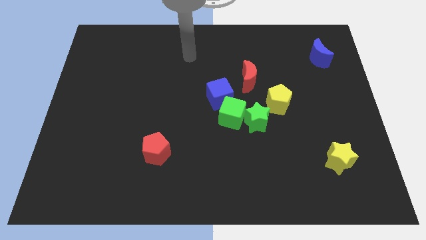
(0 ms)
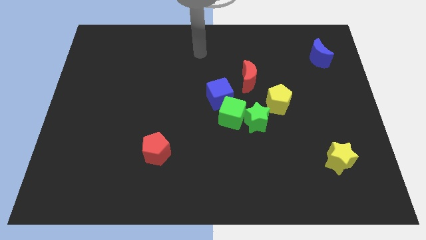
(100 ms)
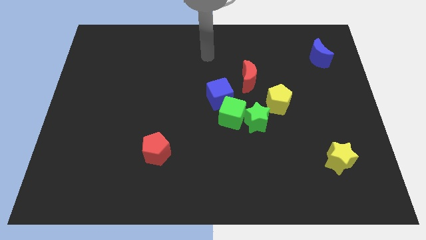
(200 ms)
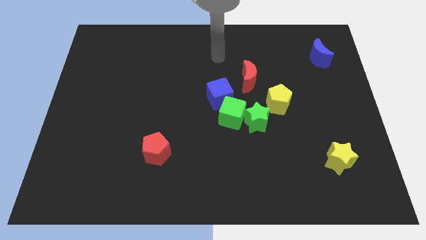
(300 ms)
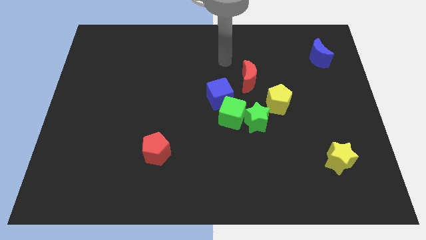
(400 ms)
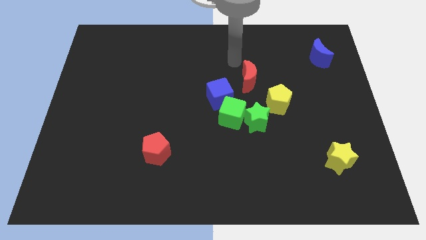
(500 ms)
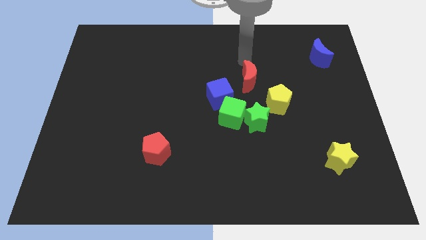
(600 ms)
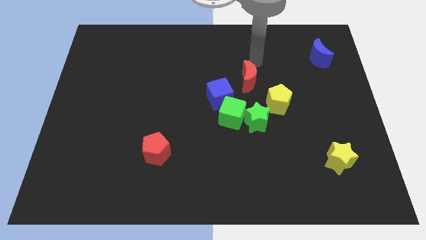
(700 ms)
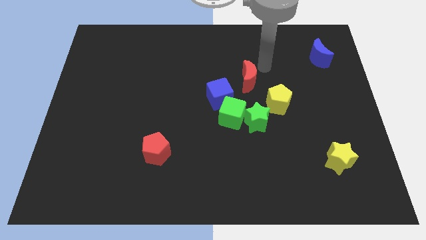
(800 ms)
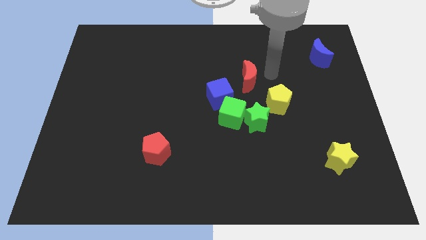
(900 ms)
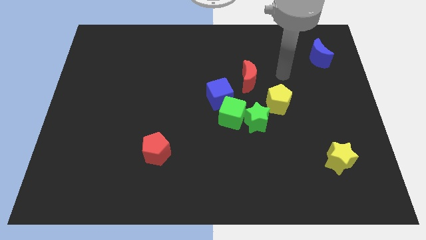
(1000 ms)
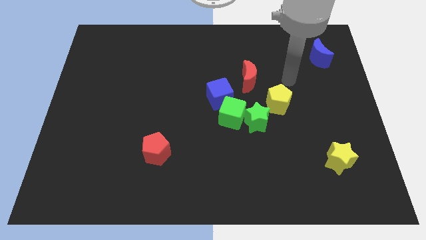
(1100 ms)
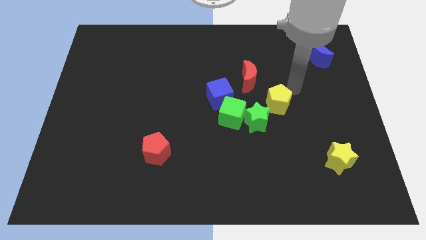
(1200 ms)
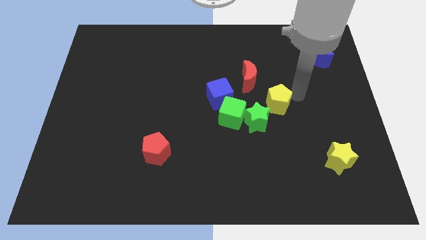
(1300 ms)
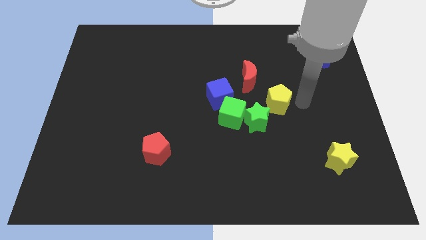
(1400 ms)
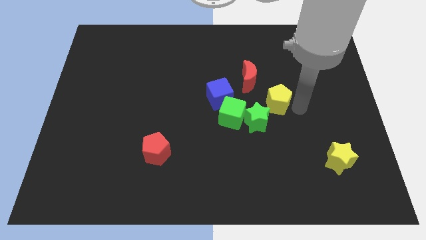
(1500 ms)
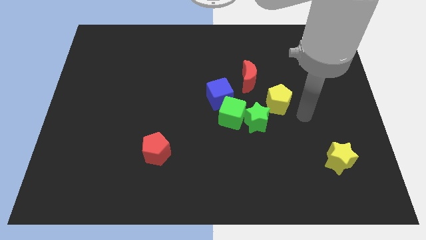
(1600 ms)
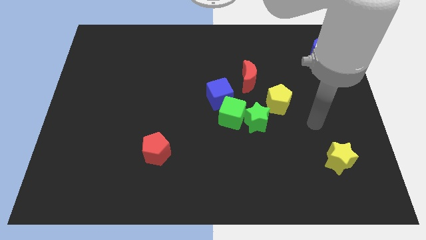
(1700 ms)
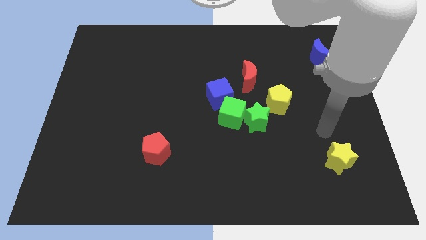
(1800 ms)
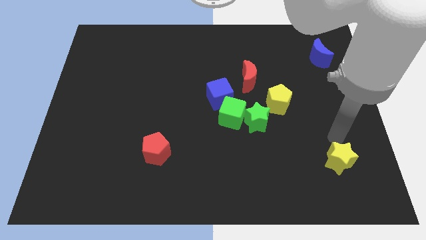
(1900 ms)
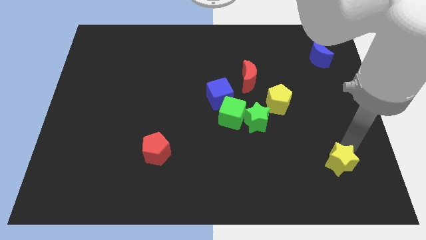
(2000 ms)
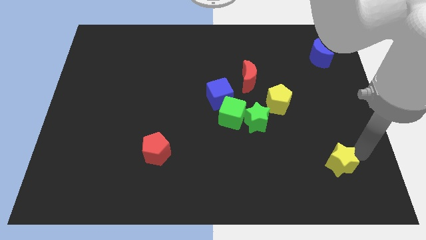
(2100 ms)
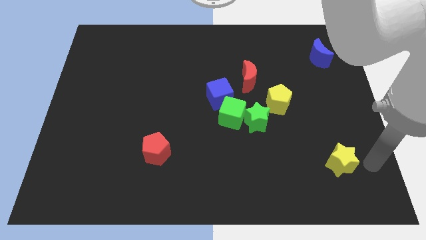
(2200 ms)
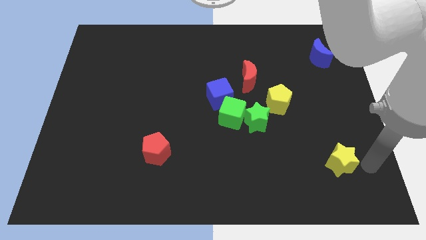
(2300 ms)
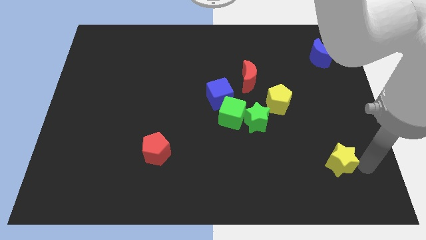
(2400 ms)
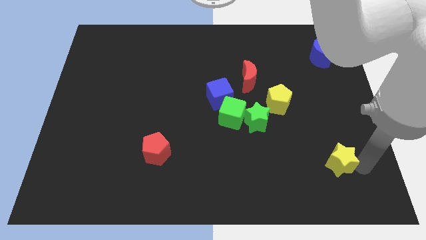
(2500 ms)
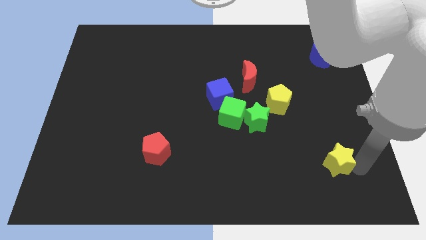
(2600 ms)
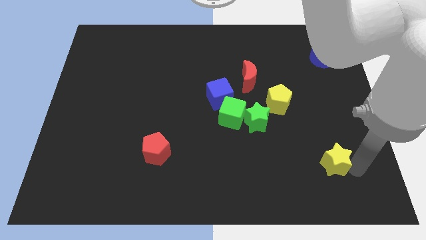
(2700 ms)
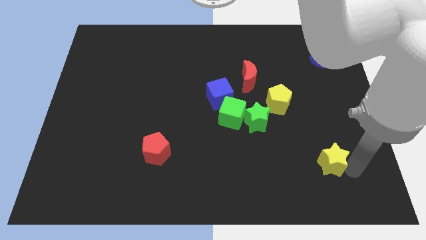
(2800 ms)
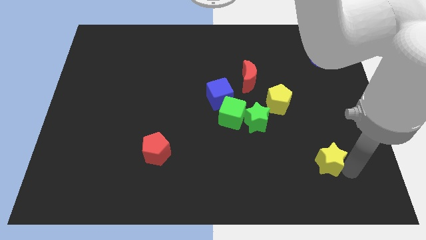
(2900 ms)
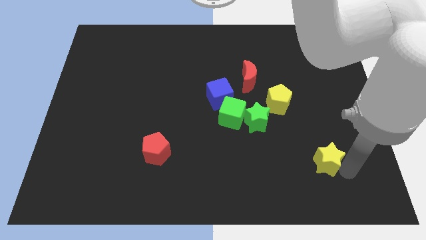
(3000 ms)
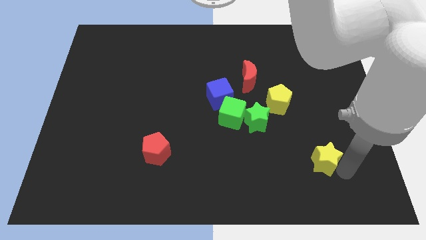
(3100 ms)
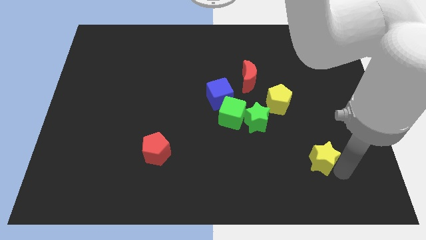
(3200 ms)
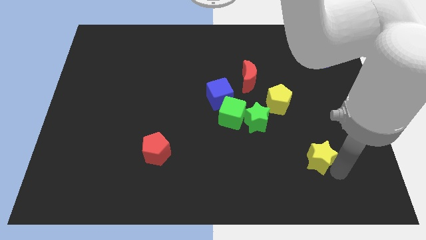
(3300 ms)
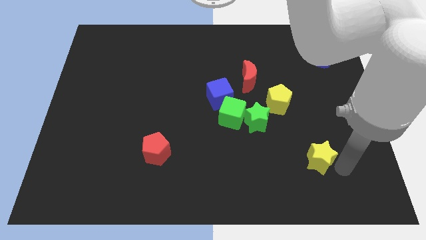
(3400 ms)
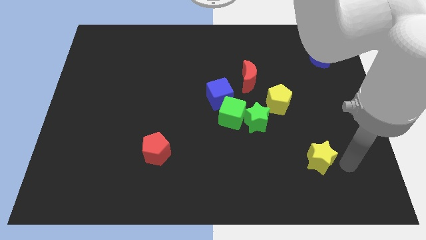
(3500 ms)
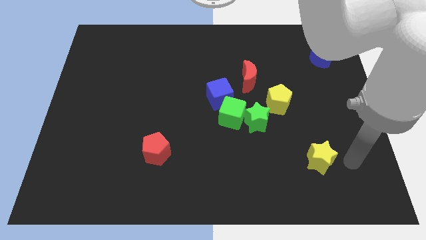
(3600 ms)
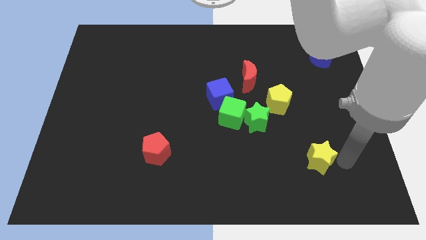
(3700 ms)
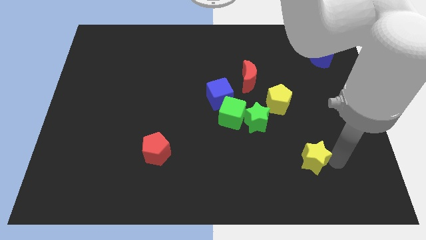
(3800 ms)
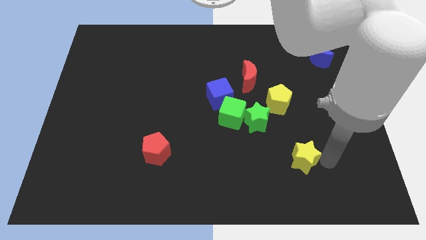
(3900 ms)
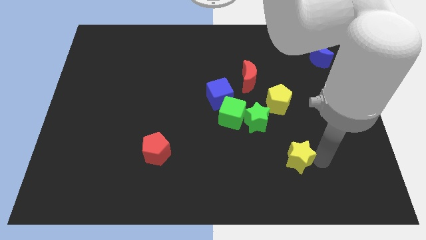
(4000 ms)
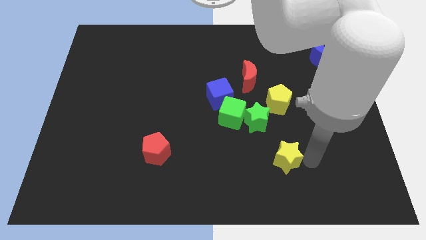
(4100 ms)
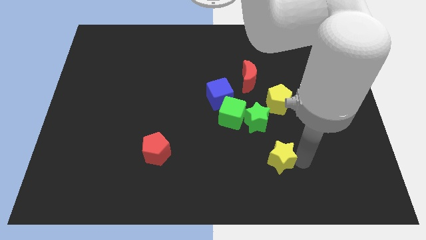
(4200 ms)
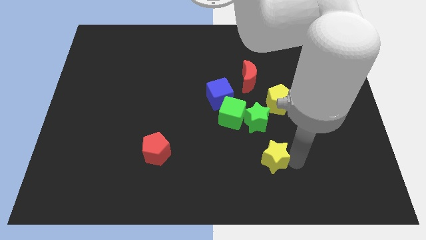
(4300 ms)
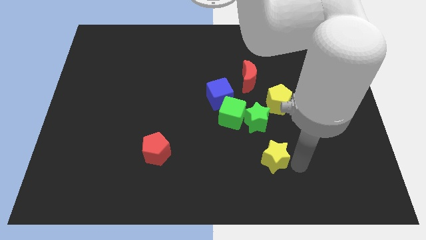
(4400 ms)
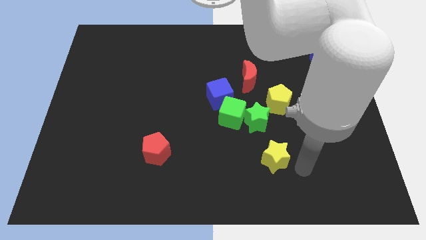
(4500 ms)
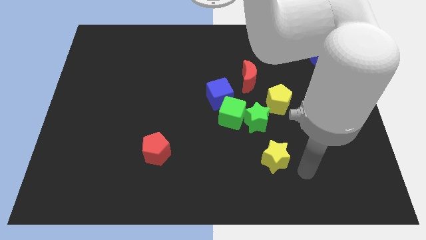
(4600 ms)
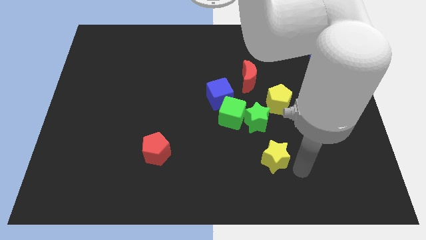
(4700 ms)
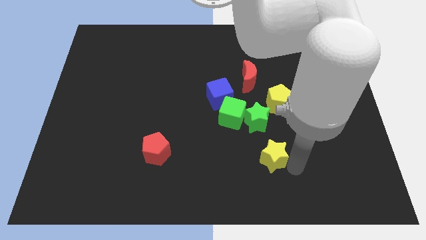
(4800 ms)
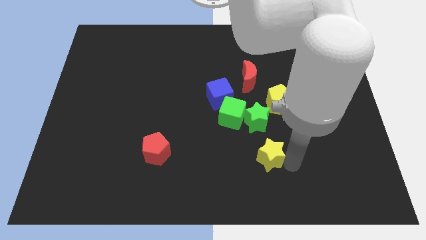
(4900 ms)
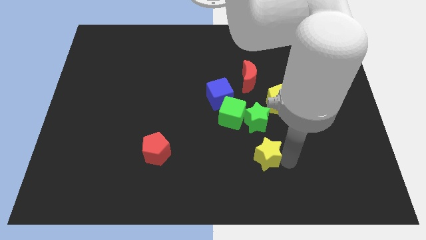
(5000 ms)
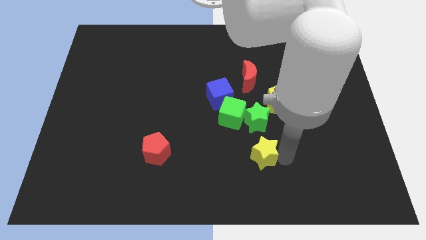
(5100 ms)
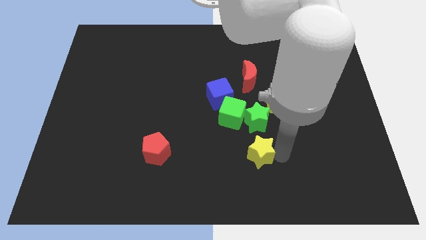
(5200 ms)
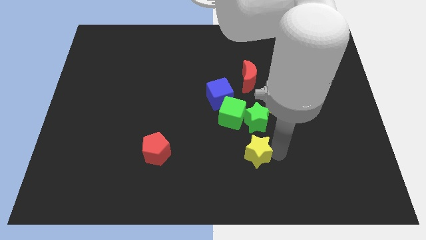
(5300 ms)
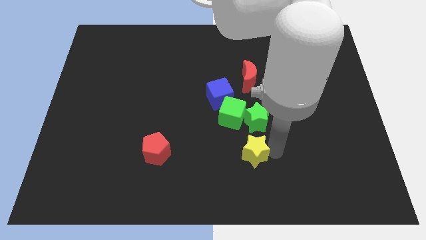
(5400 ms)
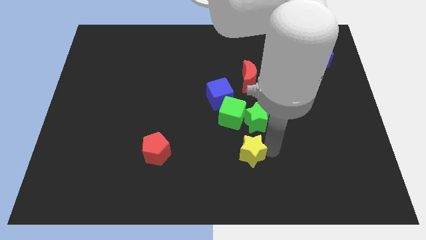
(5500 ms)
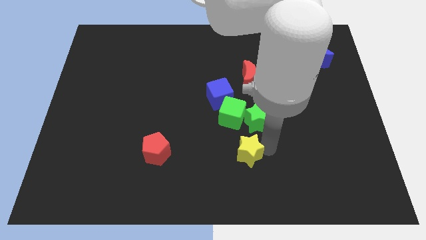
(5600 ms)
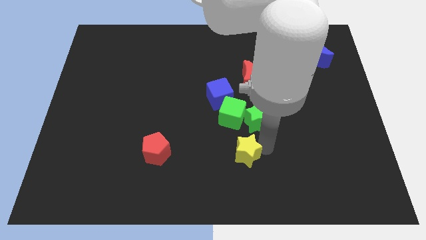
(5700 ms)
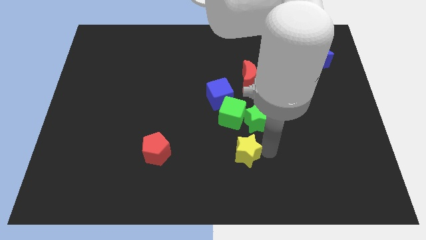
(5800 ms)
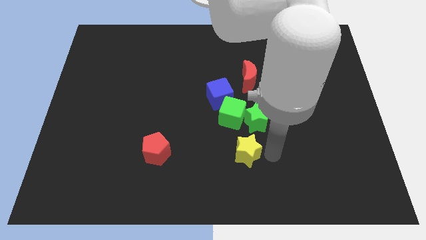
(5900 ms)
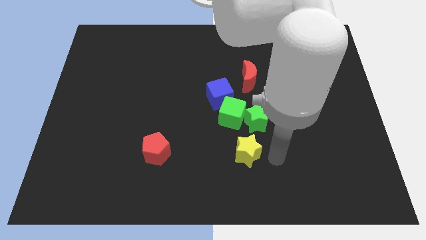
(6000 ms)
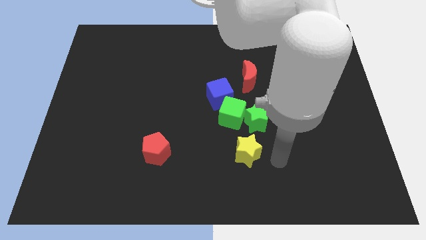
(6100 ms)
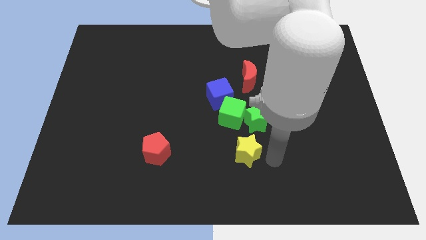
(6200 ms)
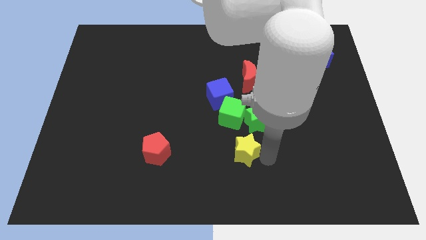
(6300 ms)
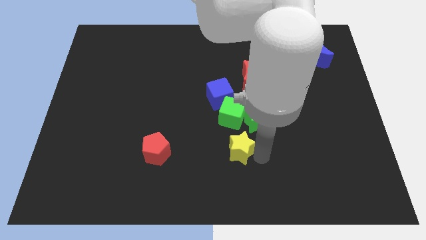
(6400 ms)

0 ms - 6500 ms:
push the yellow star left

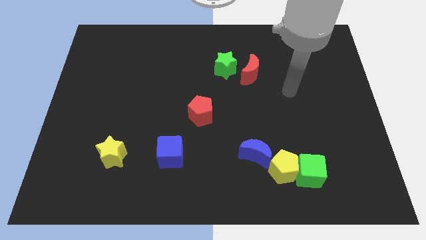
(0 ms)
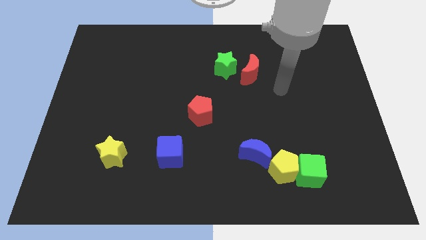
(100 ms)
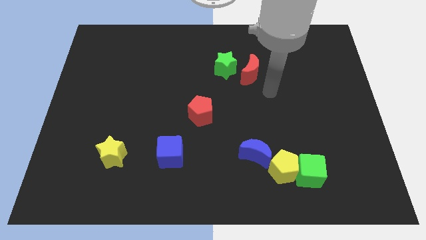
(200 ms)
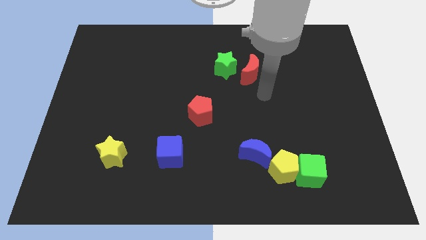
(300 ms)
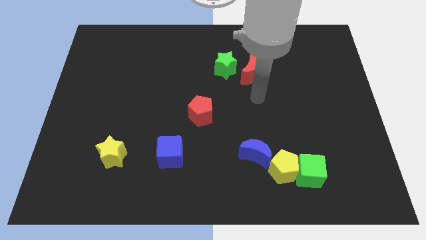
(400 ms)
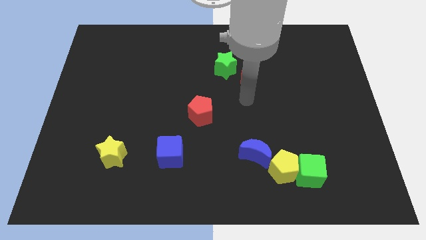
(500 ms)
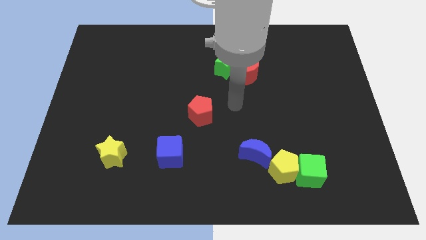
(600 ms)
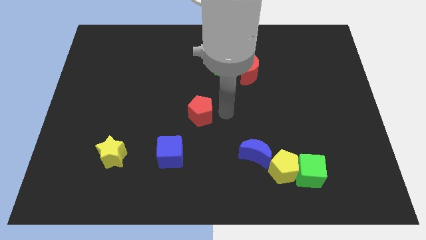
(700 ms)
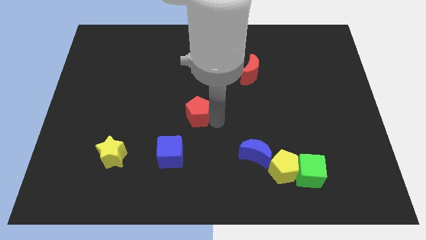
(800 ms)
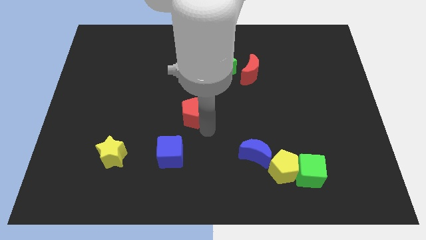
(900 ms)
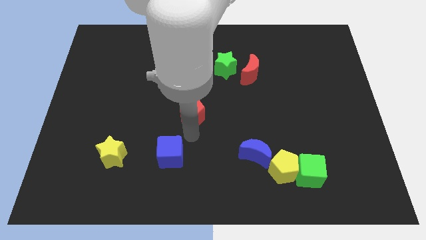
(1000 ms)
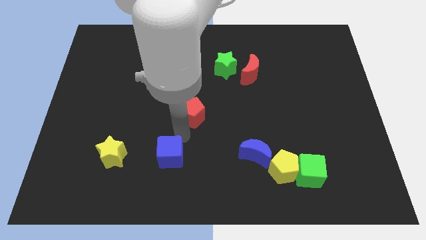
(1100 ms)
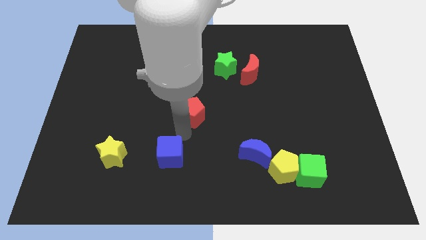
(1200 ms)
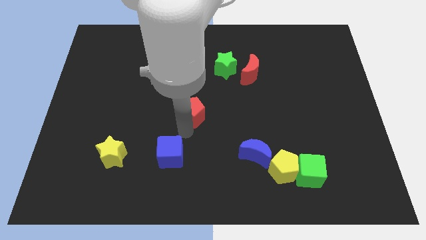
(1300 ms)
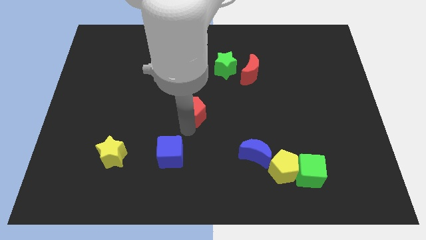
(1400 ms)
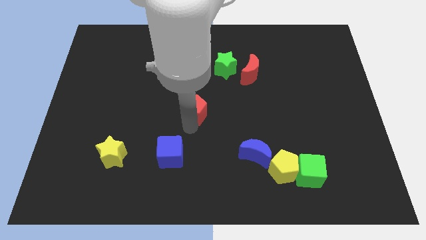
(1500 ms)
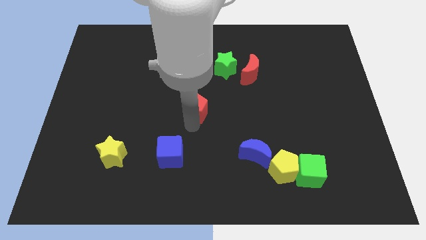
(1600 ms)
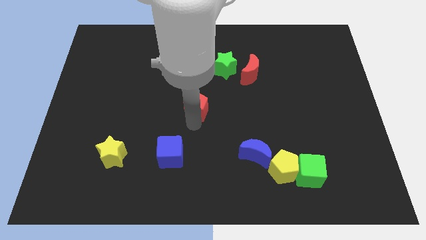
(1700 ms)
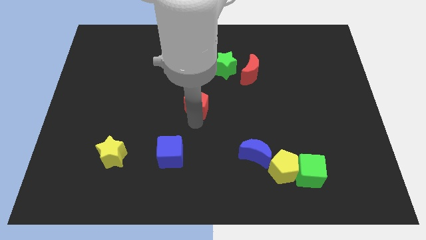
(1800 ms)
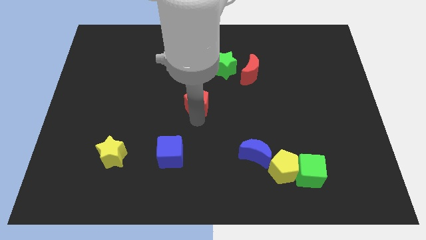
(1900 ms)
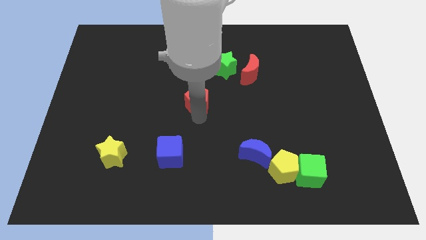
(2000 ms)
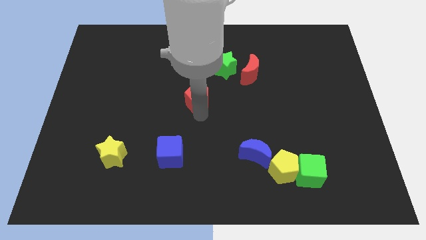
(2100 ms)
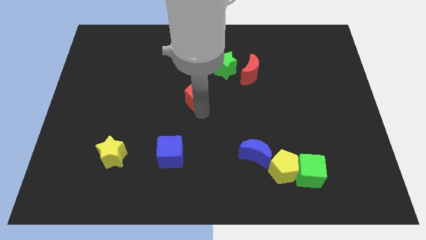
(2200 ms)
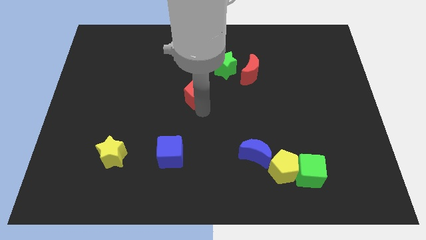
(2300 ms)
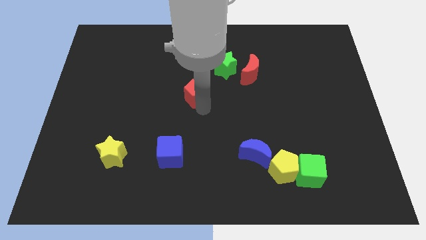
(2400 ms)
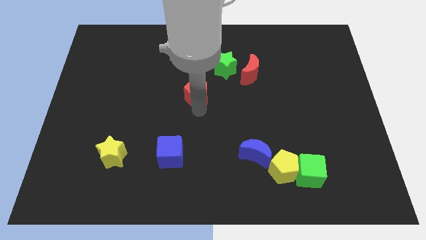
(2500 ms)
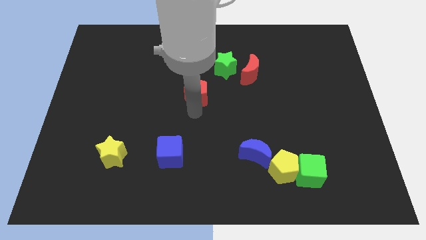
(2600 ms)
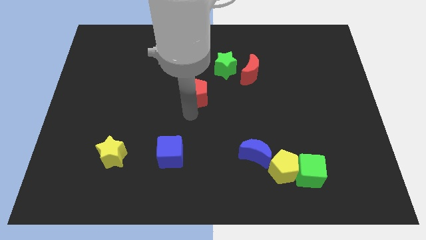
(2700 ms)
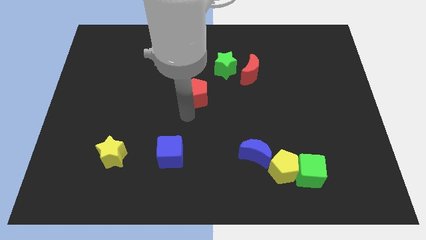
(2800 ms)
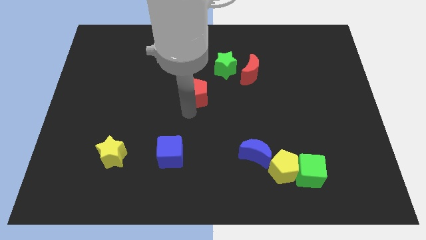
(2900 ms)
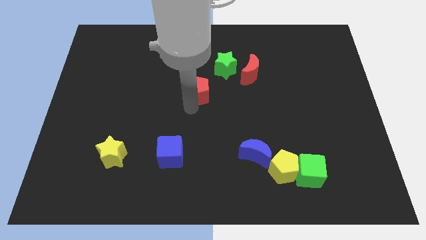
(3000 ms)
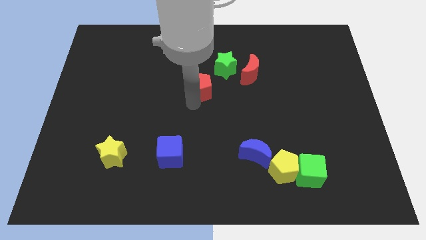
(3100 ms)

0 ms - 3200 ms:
push the red pentagon up slightly
